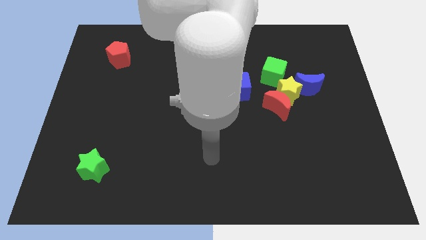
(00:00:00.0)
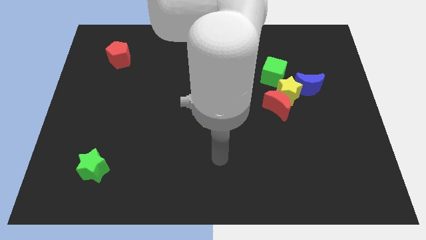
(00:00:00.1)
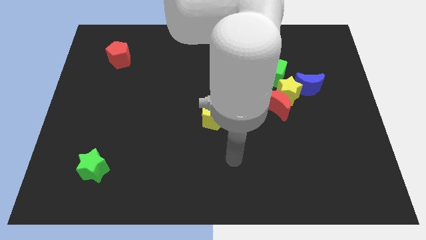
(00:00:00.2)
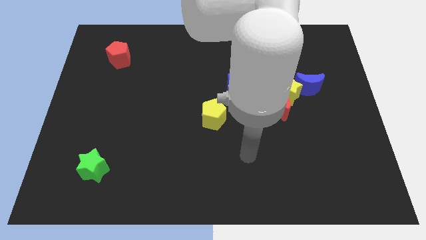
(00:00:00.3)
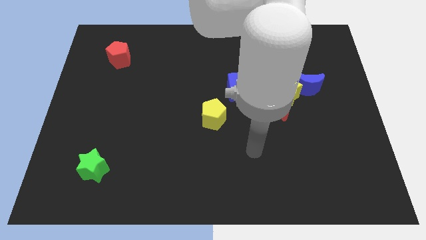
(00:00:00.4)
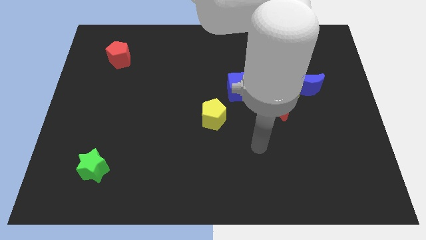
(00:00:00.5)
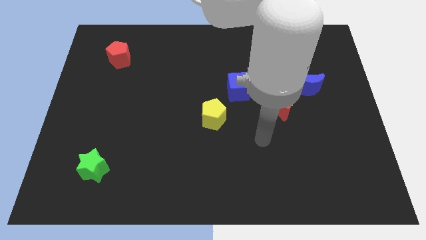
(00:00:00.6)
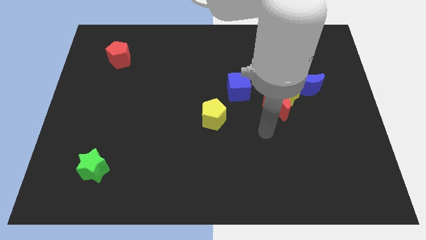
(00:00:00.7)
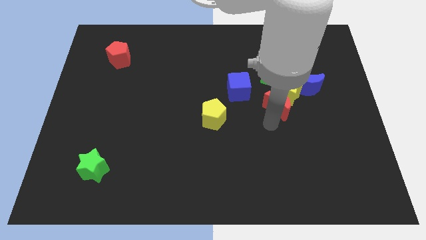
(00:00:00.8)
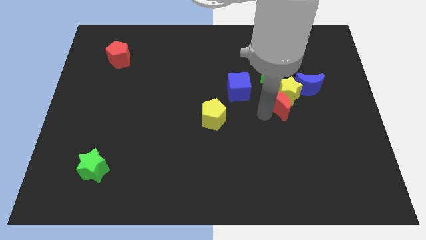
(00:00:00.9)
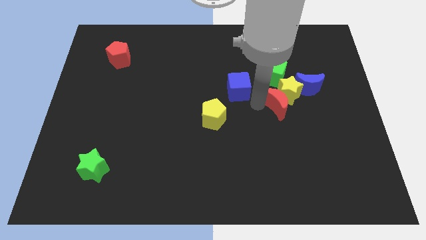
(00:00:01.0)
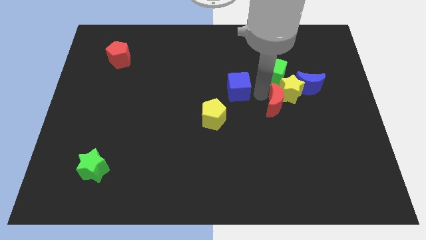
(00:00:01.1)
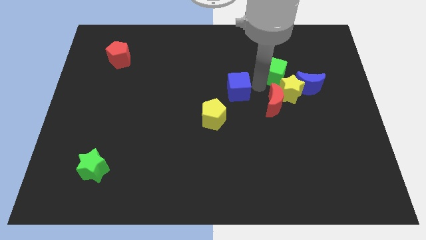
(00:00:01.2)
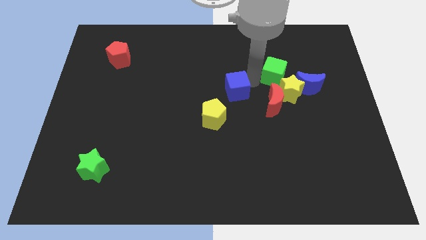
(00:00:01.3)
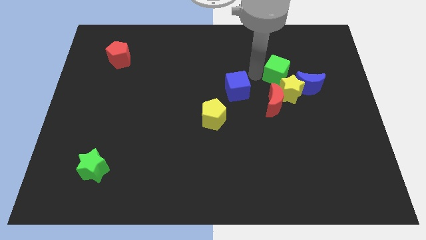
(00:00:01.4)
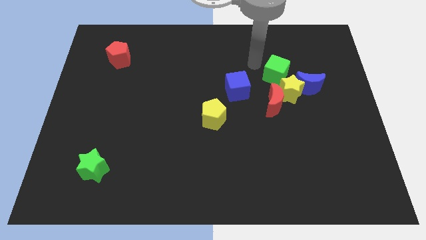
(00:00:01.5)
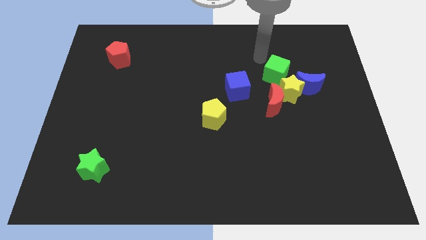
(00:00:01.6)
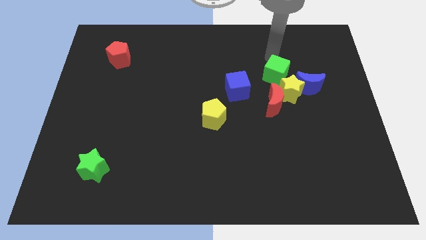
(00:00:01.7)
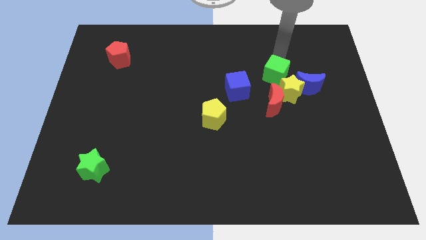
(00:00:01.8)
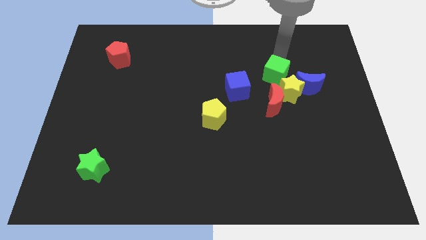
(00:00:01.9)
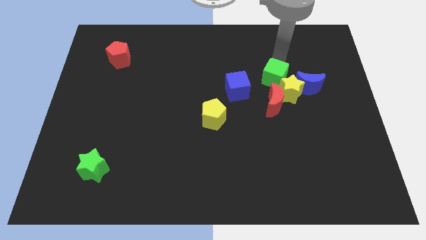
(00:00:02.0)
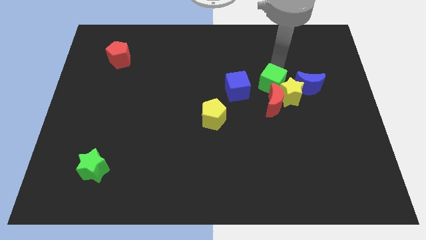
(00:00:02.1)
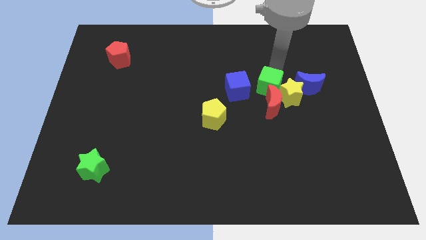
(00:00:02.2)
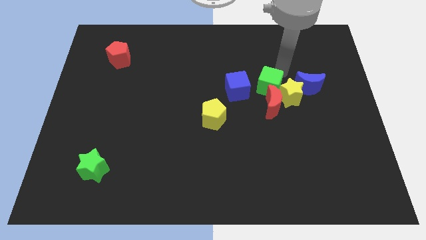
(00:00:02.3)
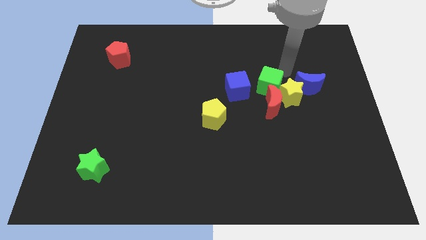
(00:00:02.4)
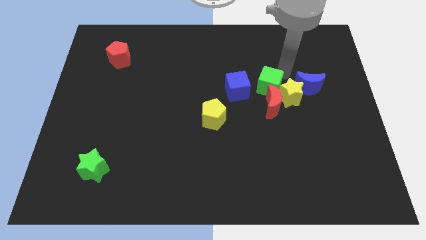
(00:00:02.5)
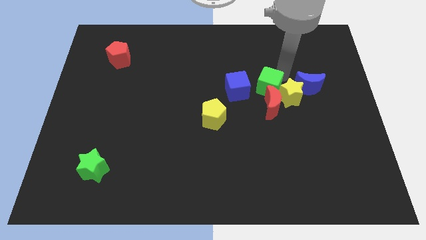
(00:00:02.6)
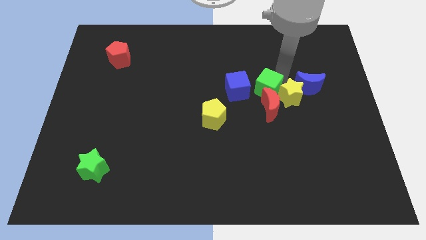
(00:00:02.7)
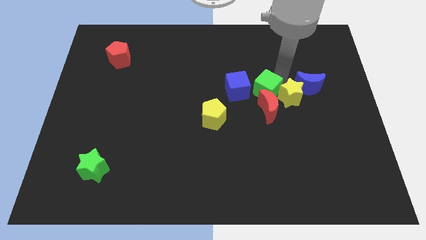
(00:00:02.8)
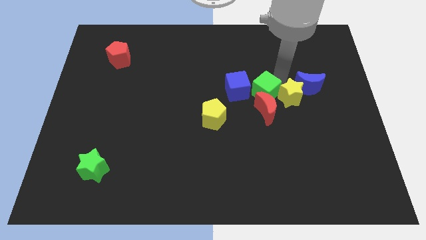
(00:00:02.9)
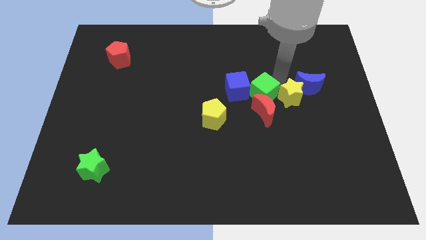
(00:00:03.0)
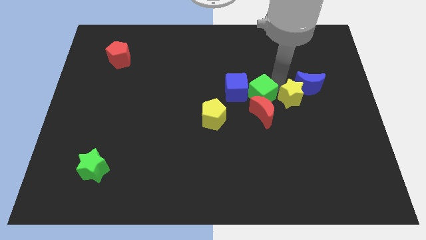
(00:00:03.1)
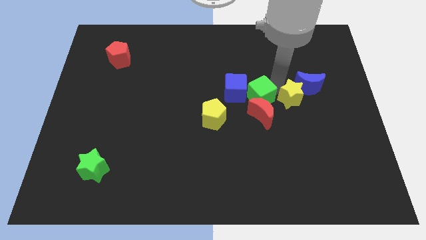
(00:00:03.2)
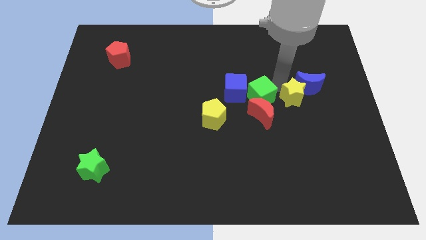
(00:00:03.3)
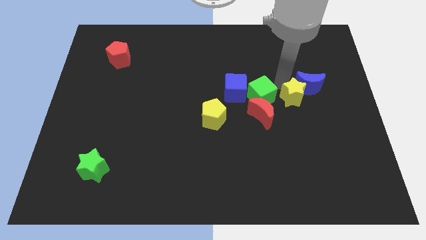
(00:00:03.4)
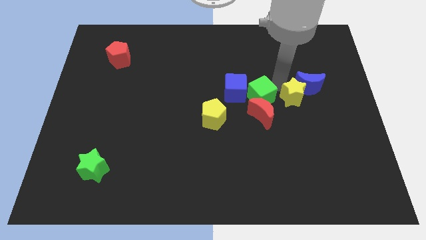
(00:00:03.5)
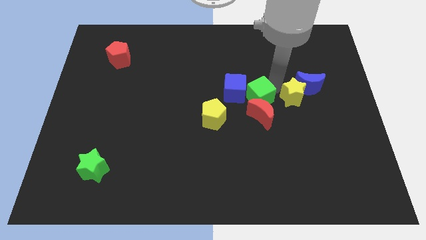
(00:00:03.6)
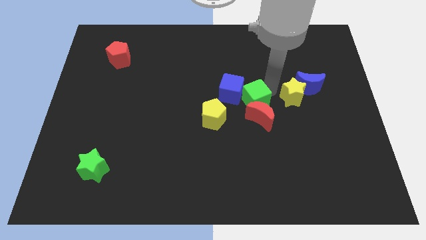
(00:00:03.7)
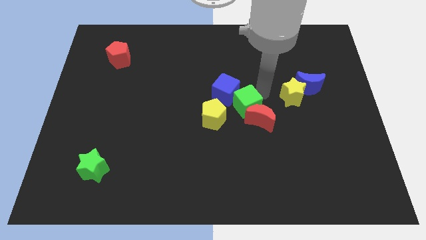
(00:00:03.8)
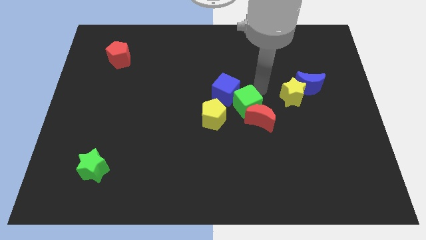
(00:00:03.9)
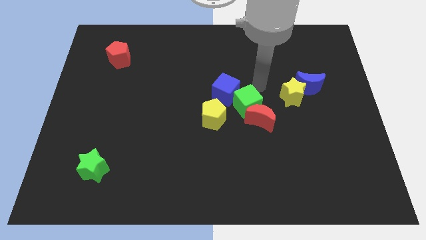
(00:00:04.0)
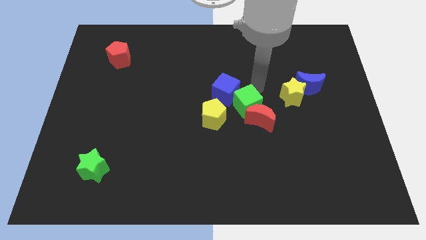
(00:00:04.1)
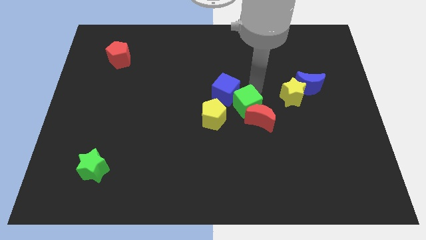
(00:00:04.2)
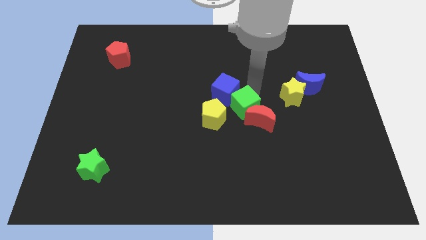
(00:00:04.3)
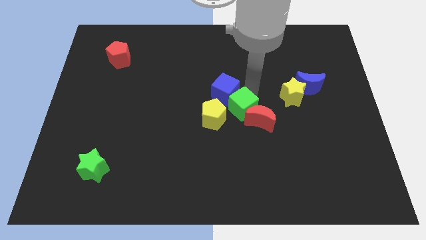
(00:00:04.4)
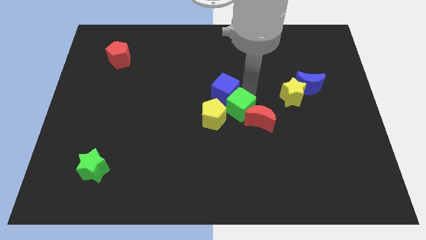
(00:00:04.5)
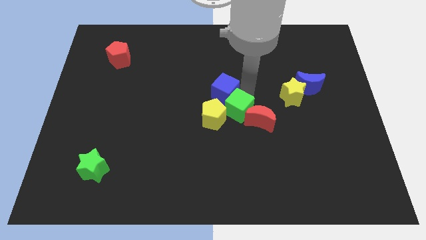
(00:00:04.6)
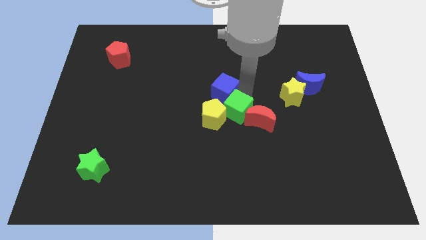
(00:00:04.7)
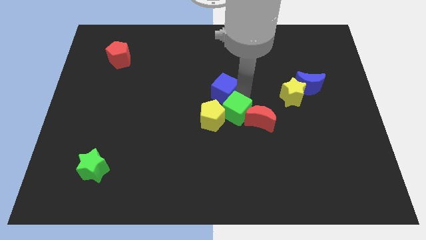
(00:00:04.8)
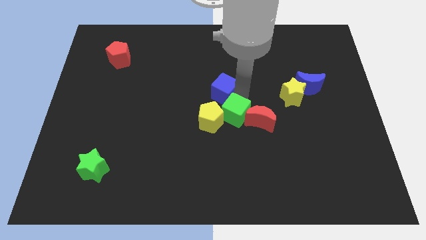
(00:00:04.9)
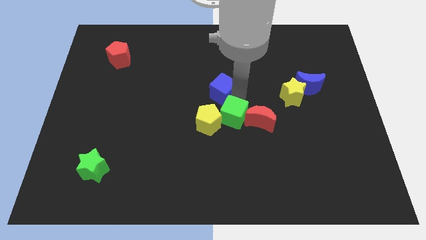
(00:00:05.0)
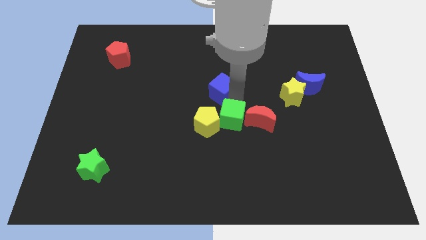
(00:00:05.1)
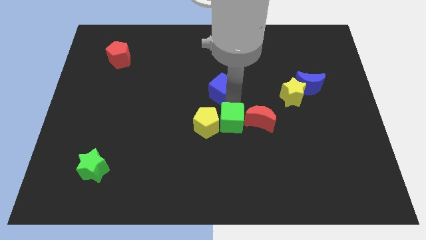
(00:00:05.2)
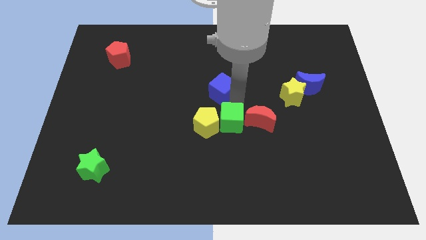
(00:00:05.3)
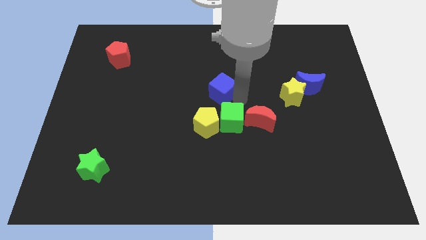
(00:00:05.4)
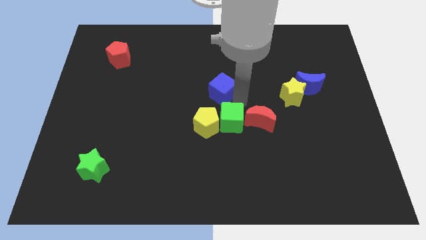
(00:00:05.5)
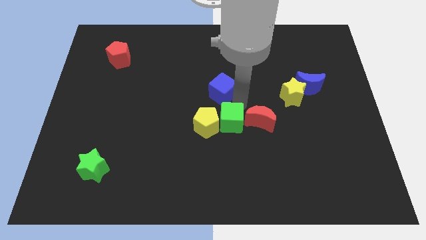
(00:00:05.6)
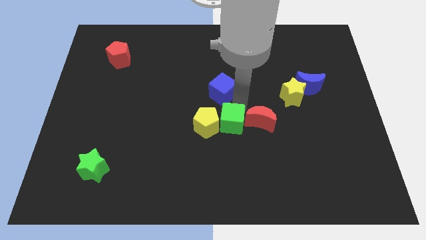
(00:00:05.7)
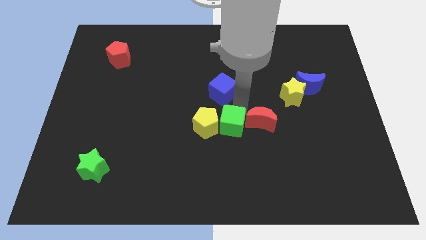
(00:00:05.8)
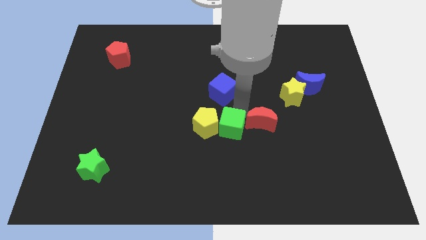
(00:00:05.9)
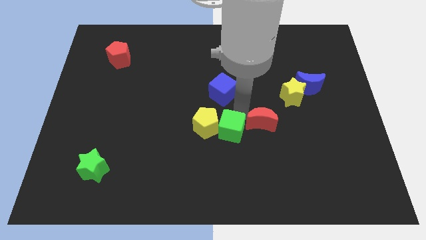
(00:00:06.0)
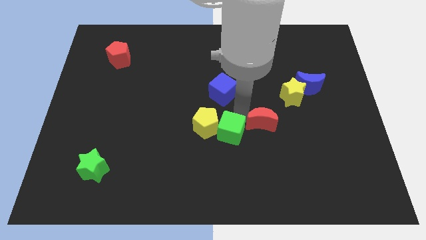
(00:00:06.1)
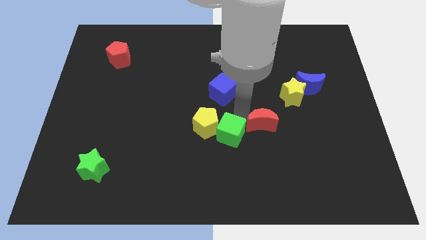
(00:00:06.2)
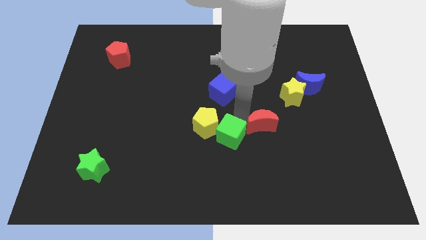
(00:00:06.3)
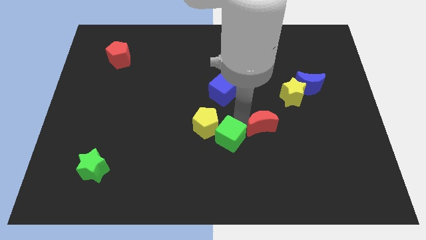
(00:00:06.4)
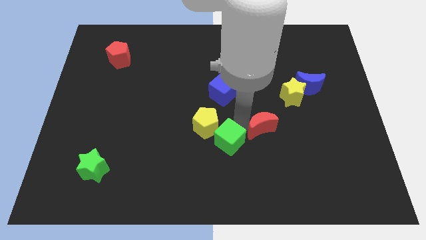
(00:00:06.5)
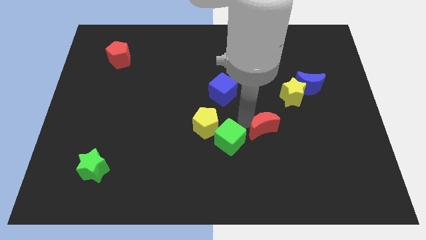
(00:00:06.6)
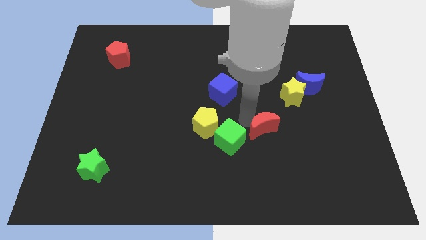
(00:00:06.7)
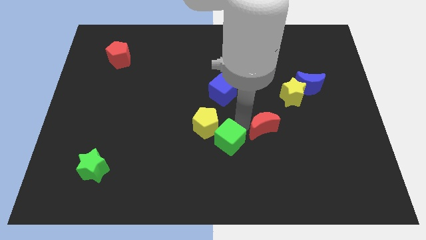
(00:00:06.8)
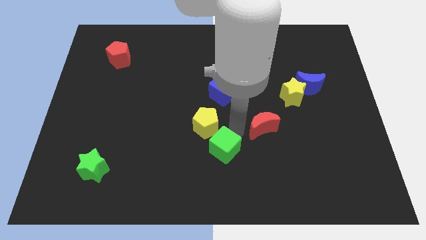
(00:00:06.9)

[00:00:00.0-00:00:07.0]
push the green cube to the bottom side of the yellow pentagon

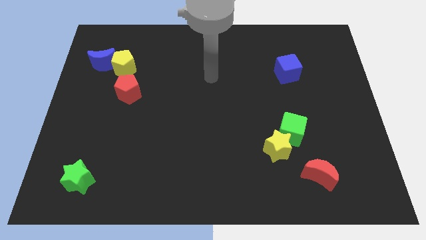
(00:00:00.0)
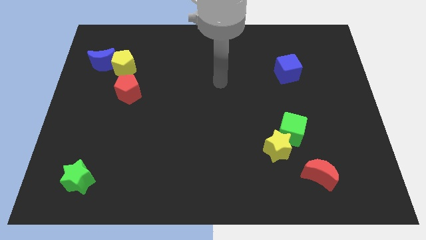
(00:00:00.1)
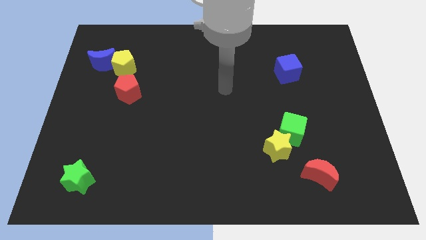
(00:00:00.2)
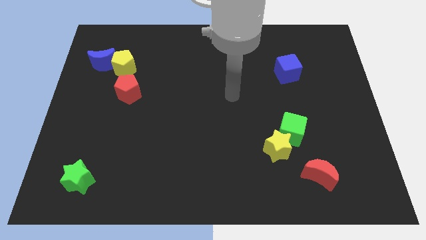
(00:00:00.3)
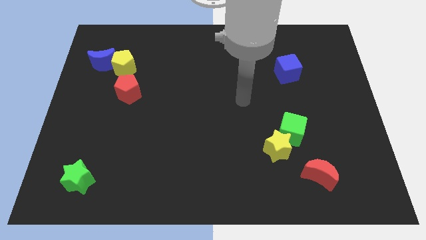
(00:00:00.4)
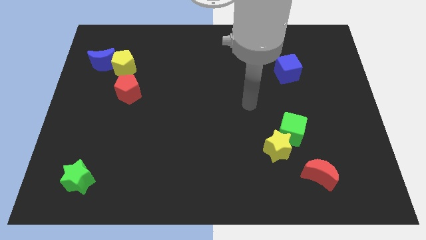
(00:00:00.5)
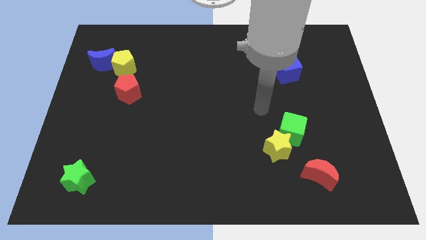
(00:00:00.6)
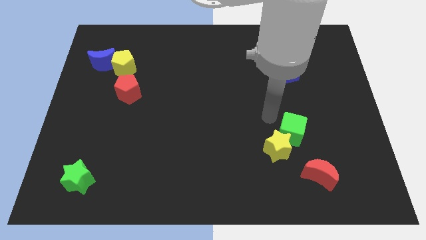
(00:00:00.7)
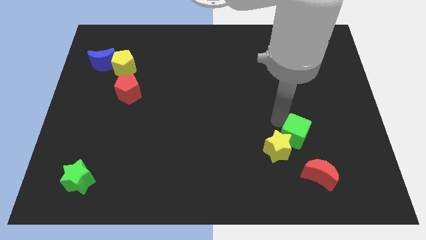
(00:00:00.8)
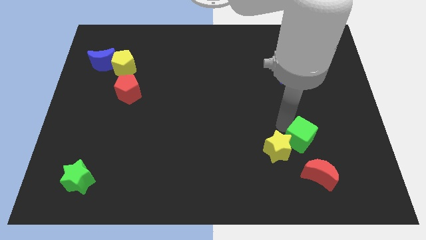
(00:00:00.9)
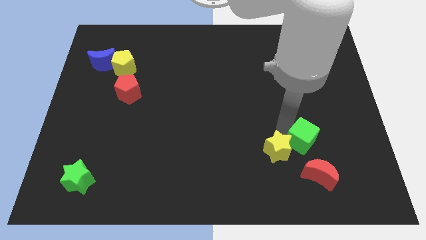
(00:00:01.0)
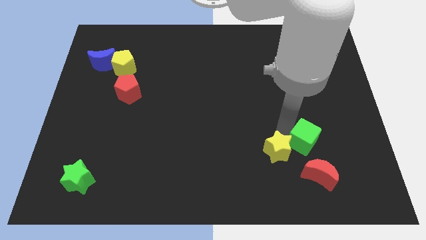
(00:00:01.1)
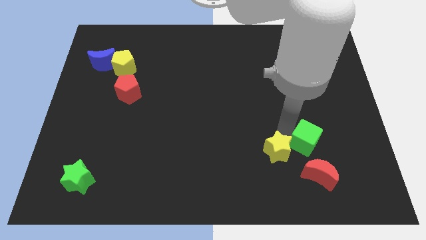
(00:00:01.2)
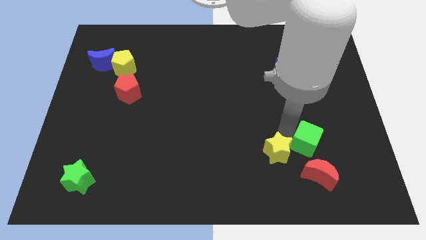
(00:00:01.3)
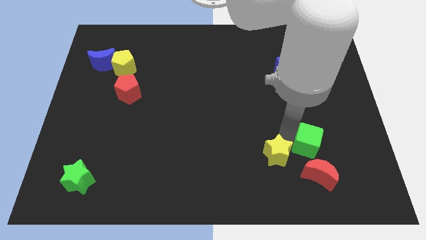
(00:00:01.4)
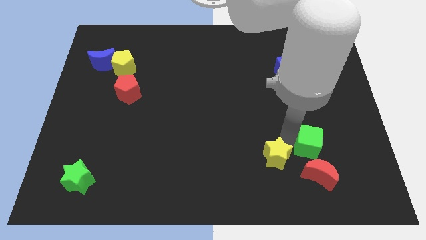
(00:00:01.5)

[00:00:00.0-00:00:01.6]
push the yellow star to the left of the red moon
